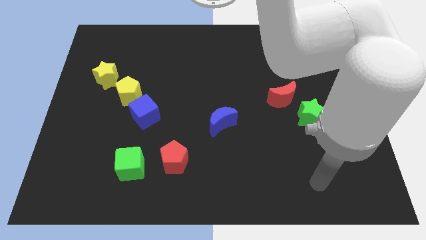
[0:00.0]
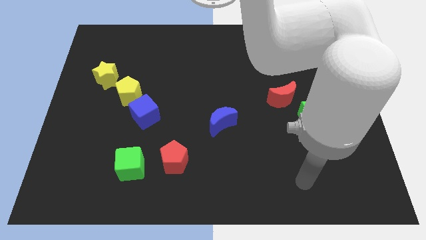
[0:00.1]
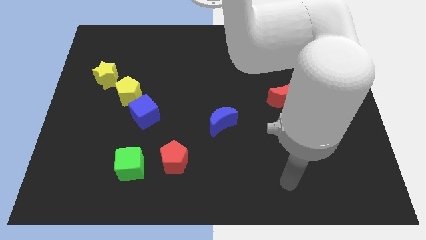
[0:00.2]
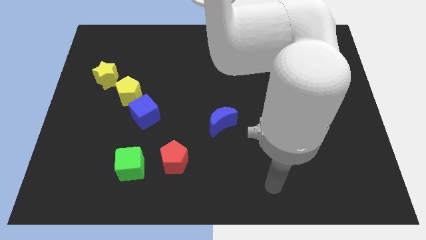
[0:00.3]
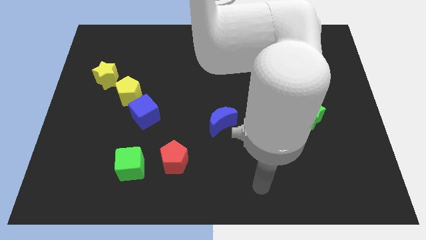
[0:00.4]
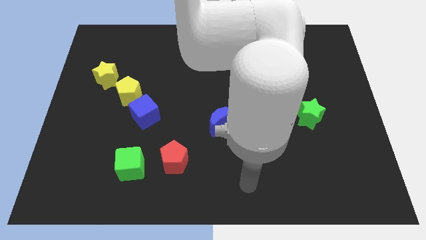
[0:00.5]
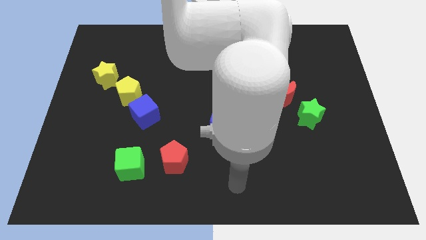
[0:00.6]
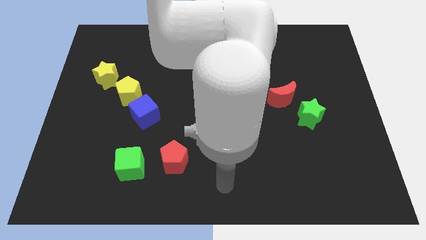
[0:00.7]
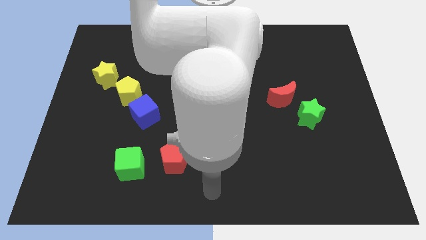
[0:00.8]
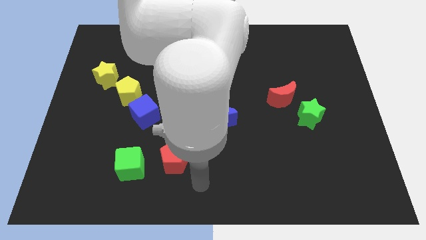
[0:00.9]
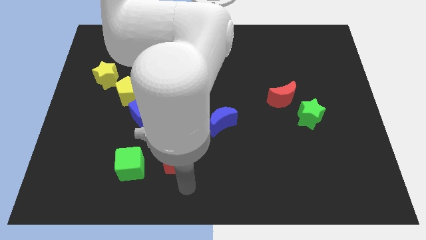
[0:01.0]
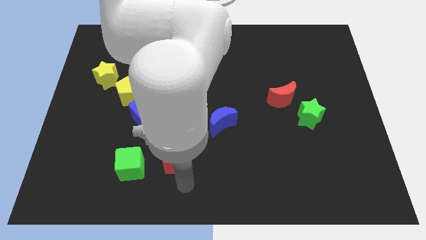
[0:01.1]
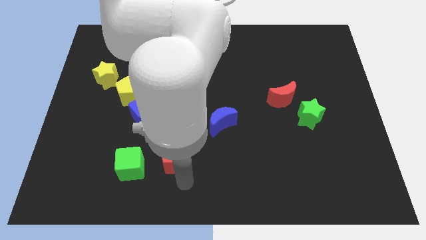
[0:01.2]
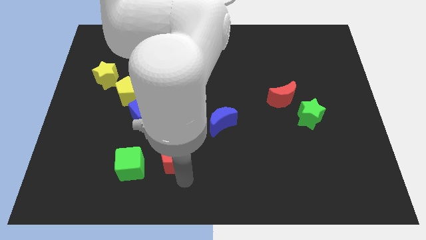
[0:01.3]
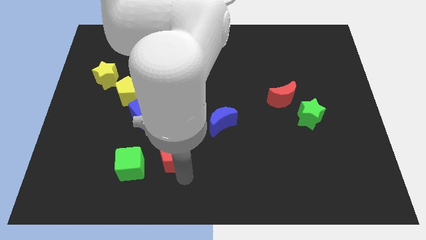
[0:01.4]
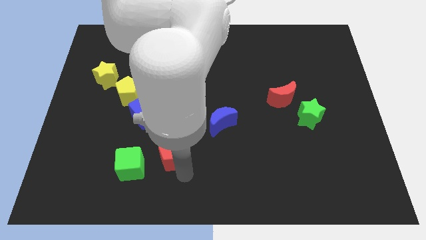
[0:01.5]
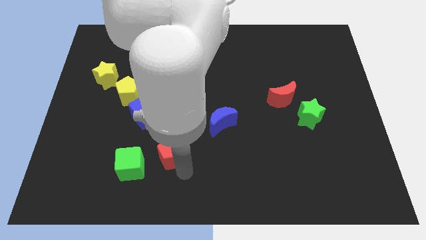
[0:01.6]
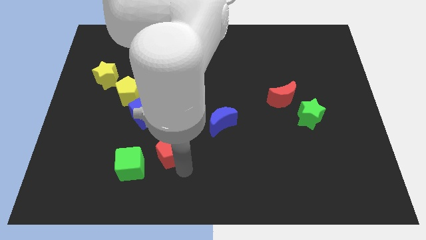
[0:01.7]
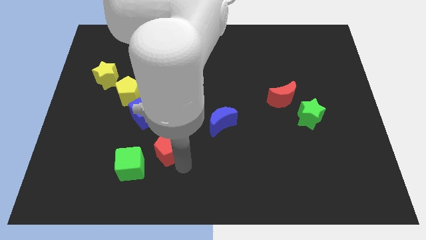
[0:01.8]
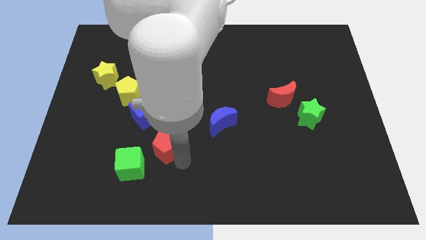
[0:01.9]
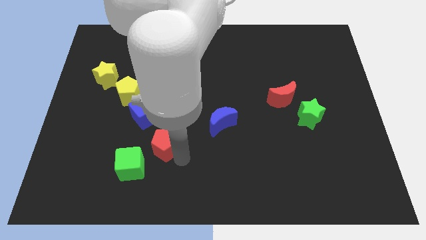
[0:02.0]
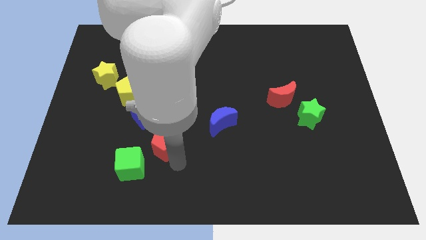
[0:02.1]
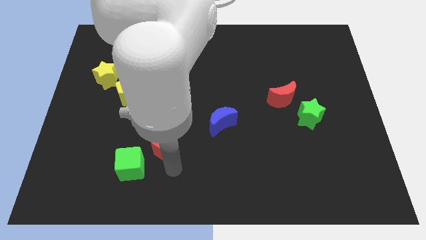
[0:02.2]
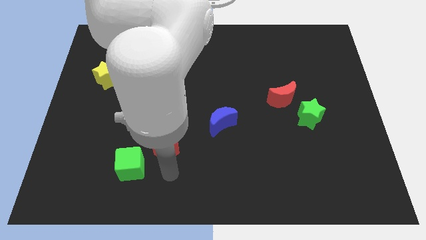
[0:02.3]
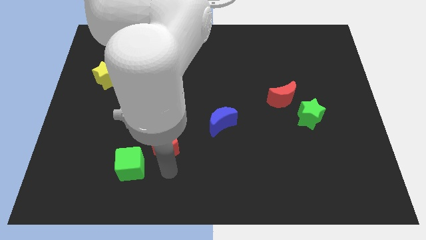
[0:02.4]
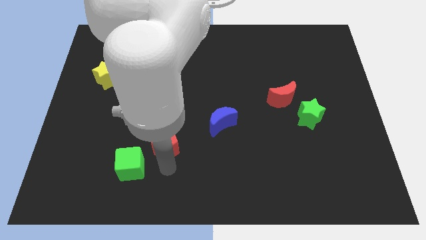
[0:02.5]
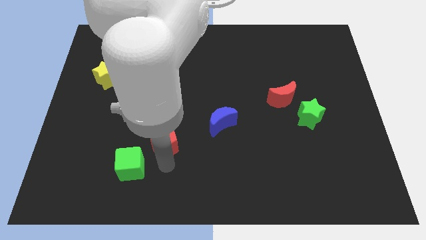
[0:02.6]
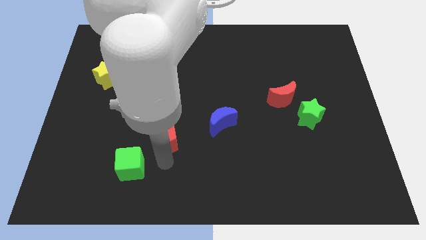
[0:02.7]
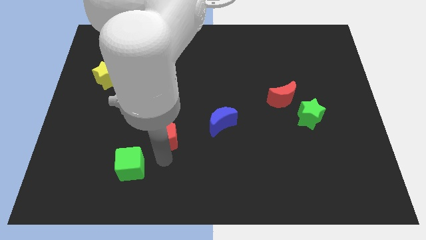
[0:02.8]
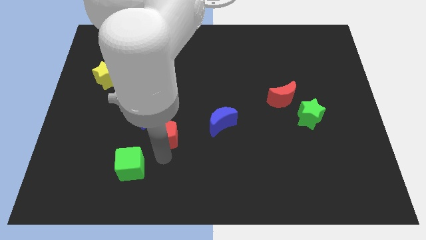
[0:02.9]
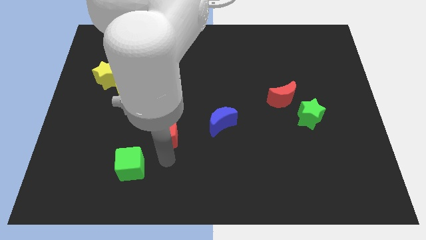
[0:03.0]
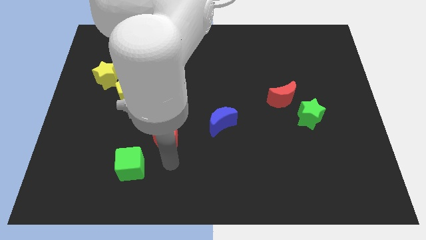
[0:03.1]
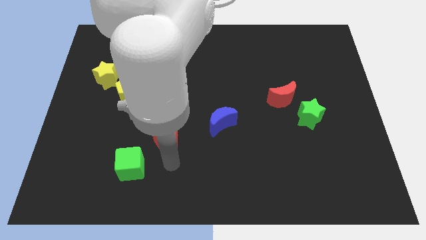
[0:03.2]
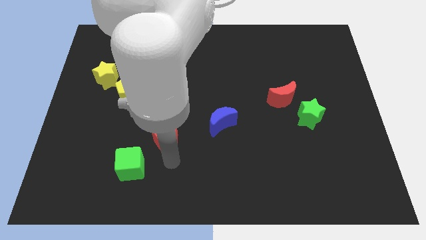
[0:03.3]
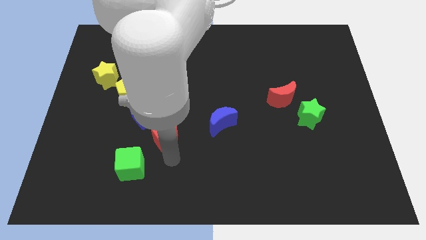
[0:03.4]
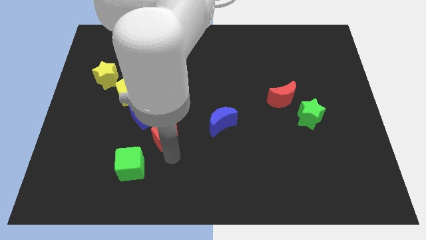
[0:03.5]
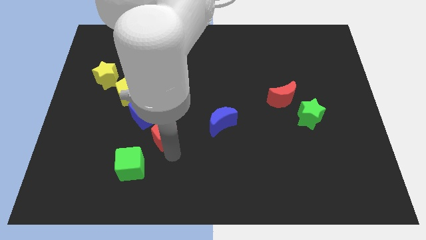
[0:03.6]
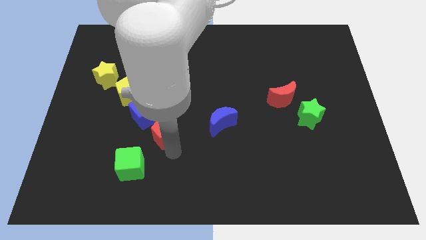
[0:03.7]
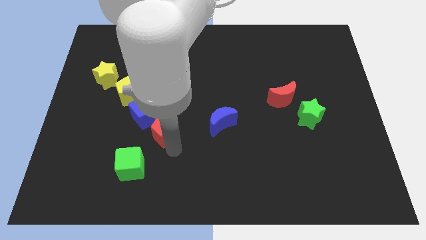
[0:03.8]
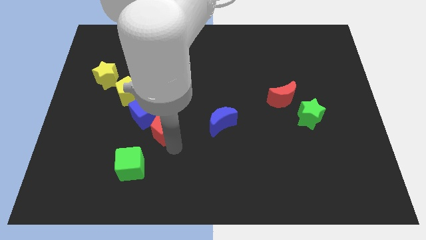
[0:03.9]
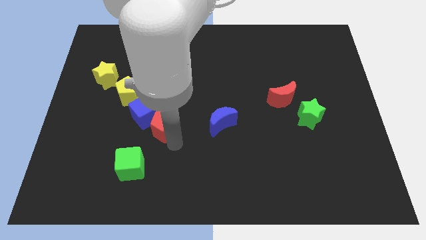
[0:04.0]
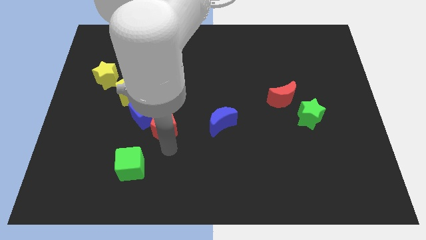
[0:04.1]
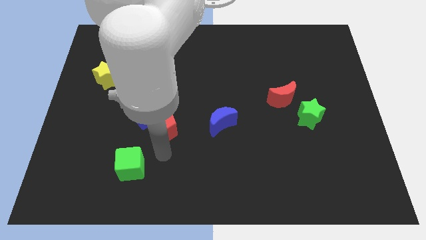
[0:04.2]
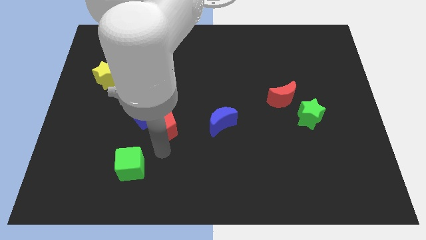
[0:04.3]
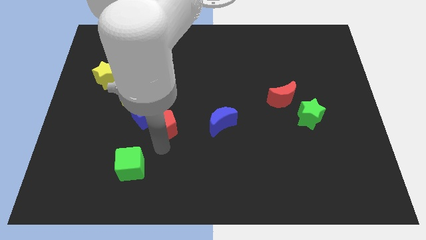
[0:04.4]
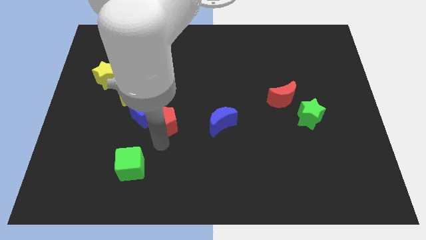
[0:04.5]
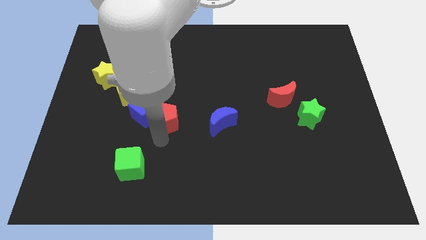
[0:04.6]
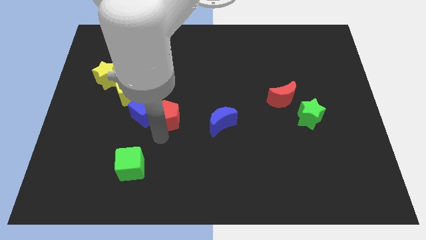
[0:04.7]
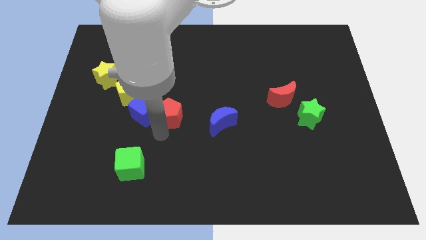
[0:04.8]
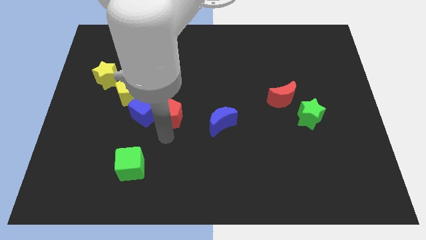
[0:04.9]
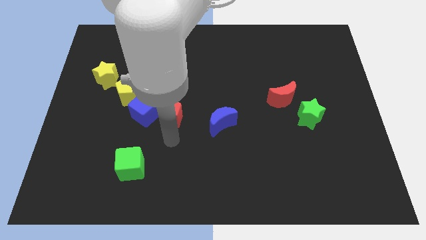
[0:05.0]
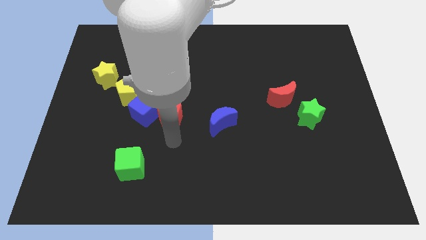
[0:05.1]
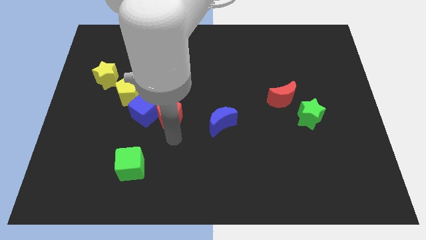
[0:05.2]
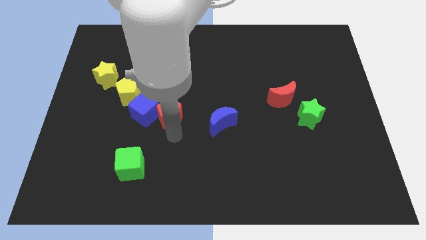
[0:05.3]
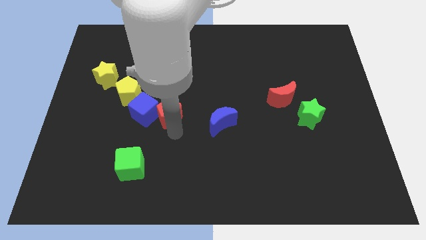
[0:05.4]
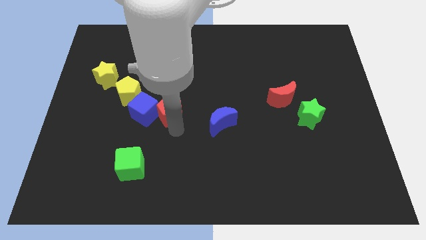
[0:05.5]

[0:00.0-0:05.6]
put the red pentagon to the top right side of the blue cube

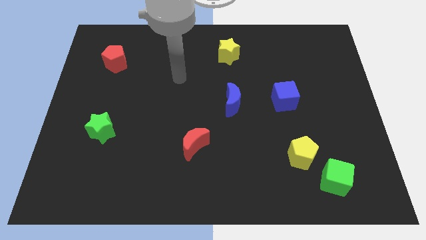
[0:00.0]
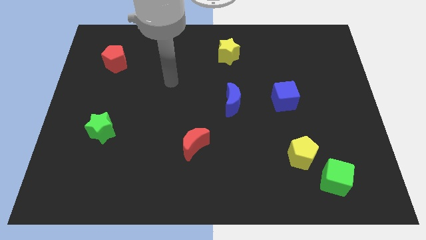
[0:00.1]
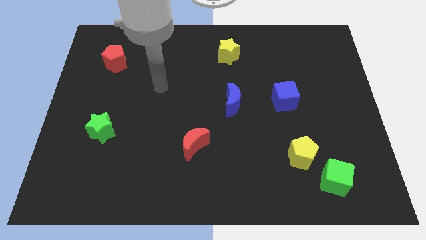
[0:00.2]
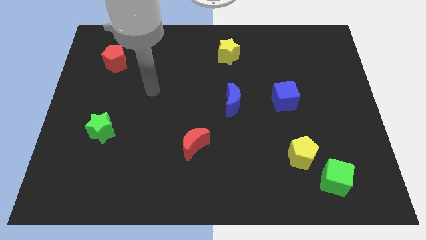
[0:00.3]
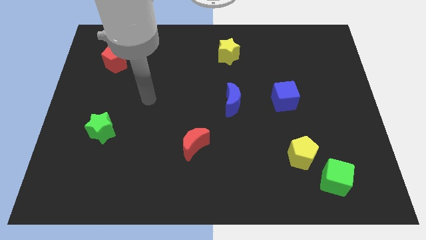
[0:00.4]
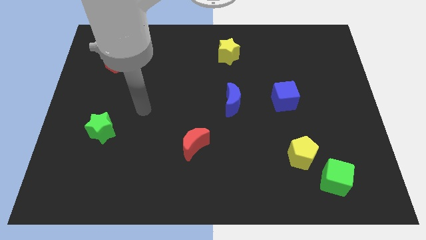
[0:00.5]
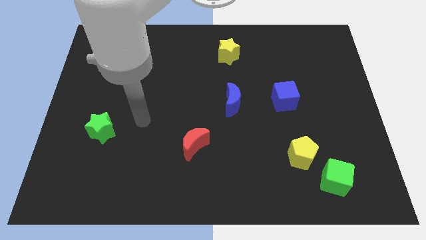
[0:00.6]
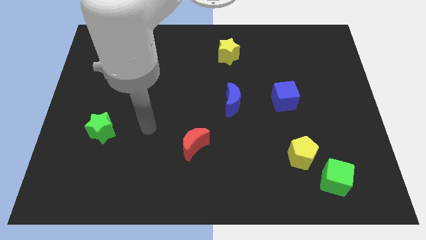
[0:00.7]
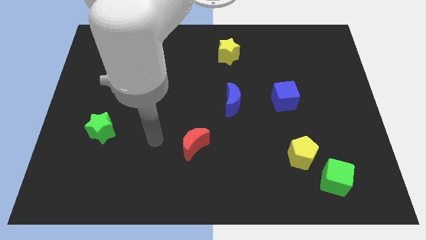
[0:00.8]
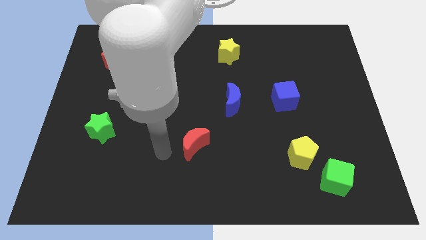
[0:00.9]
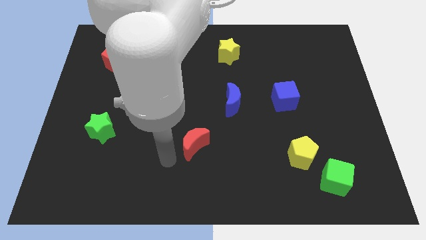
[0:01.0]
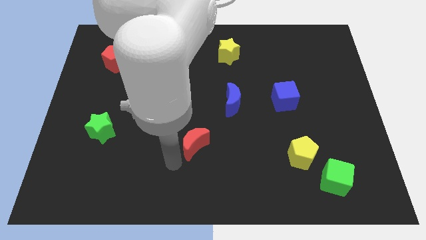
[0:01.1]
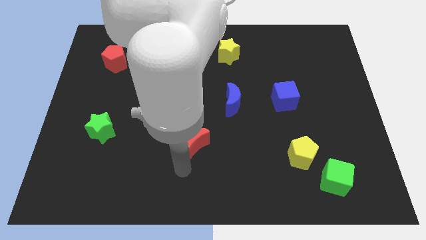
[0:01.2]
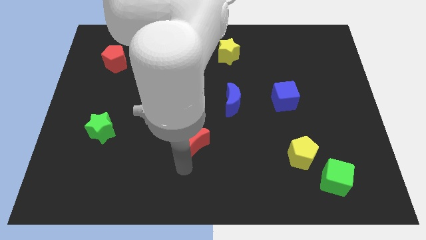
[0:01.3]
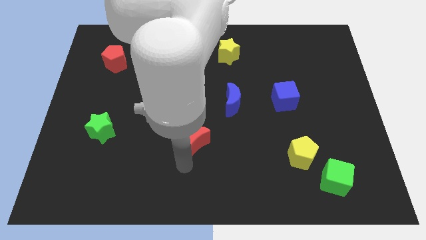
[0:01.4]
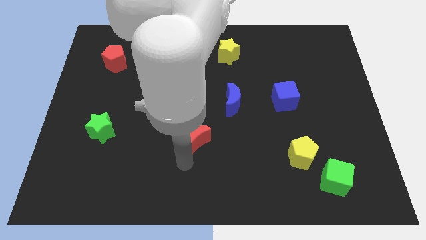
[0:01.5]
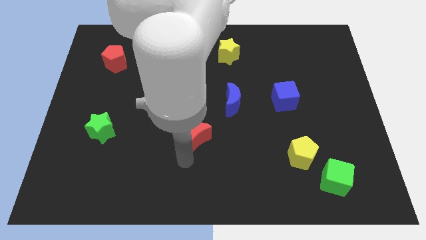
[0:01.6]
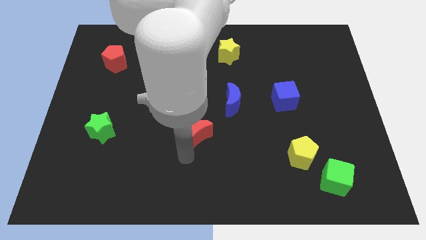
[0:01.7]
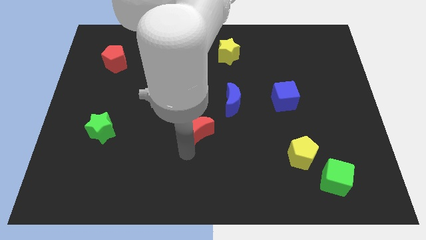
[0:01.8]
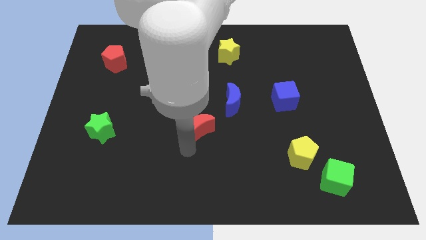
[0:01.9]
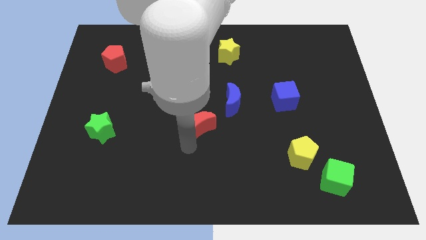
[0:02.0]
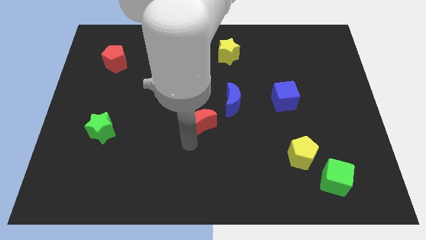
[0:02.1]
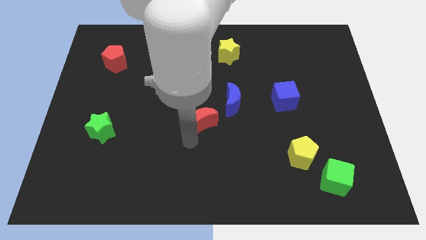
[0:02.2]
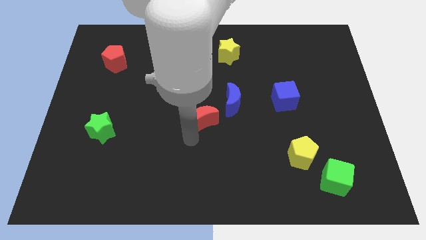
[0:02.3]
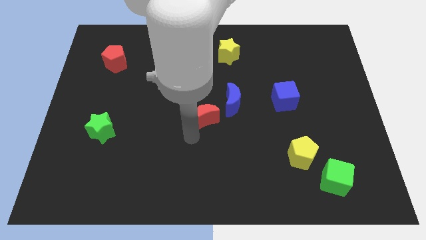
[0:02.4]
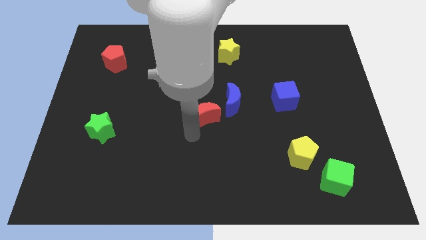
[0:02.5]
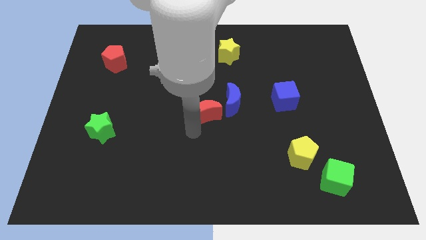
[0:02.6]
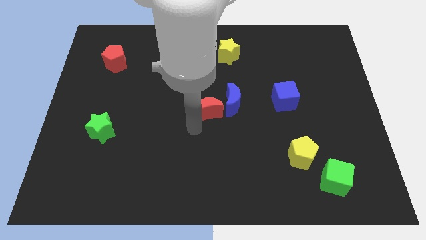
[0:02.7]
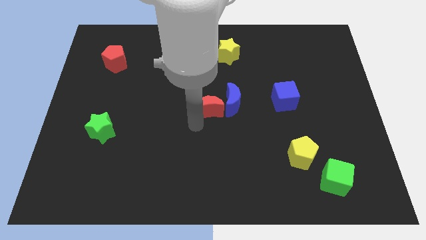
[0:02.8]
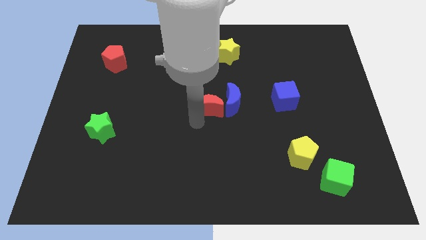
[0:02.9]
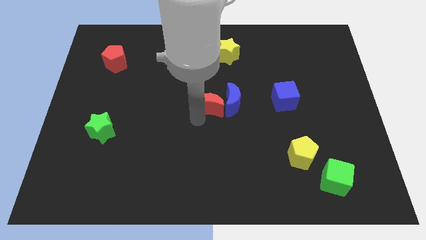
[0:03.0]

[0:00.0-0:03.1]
slide the red moon to the top left of the blue moon

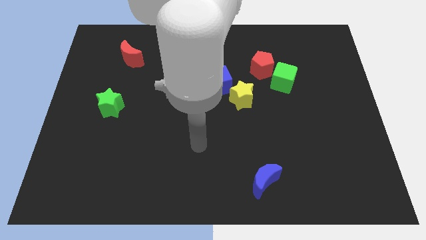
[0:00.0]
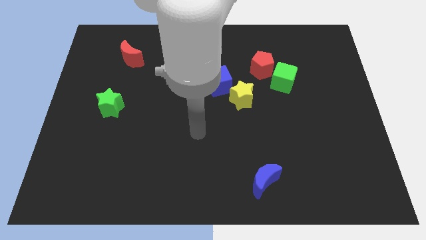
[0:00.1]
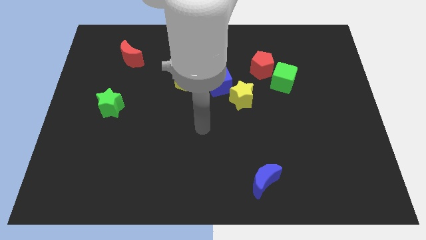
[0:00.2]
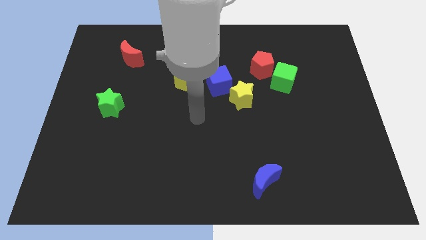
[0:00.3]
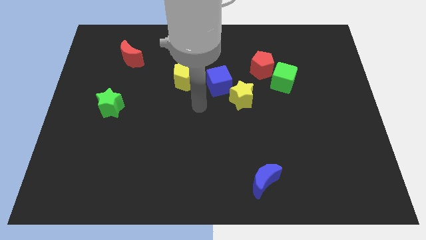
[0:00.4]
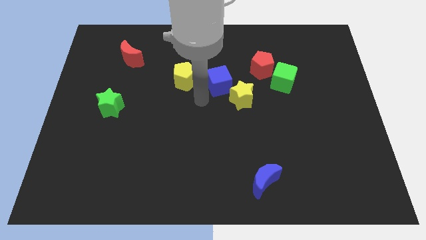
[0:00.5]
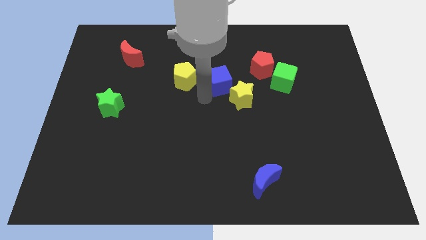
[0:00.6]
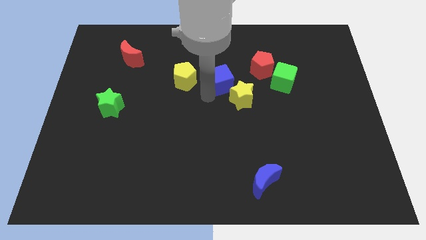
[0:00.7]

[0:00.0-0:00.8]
slide the blue cube to the top side of the yellow star
